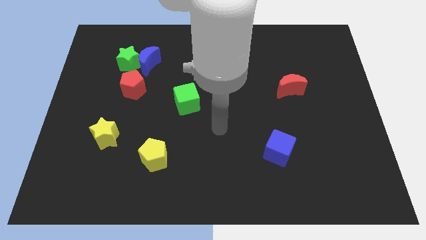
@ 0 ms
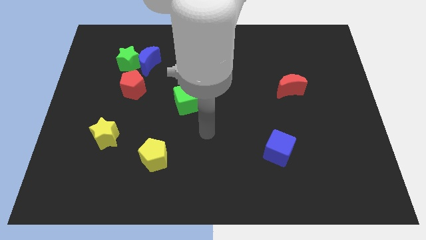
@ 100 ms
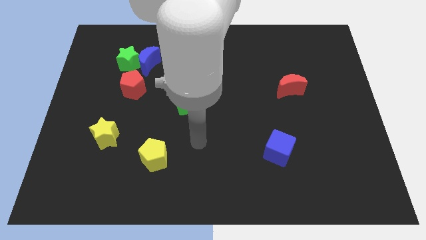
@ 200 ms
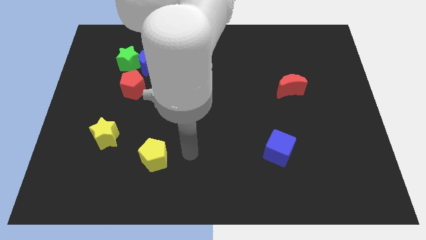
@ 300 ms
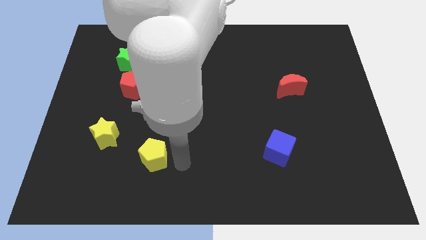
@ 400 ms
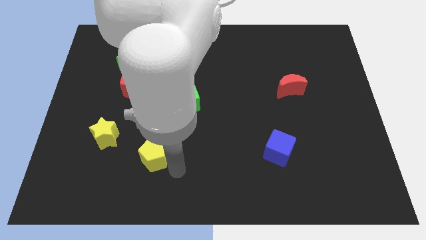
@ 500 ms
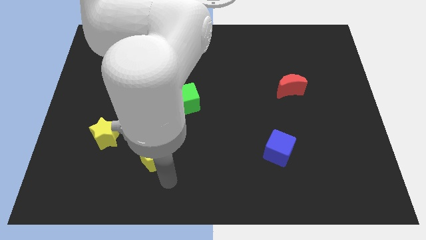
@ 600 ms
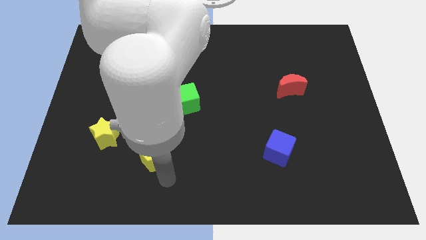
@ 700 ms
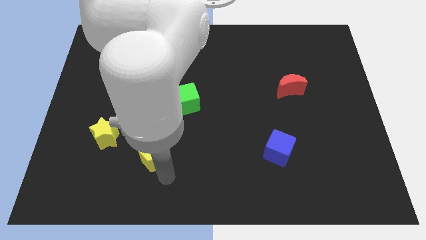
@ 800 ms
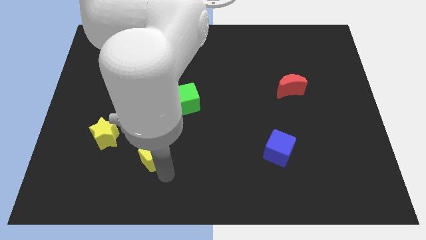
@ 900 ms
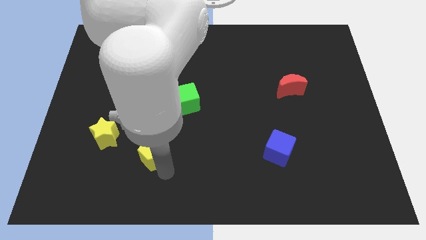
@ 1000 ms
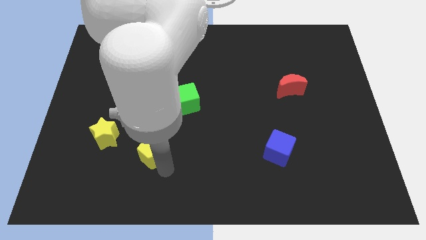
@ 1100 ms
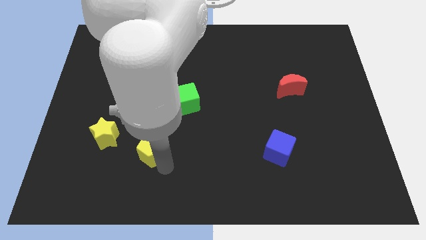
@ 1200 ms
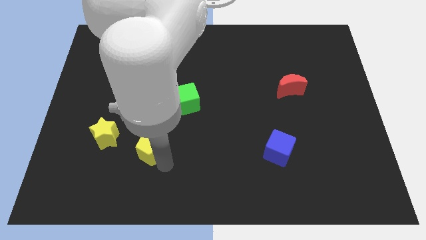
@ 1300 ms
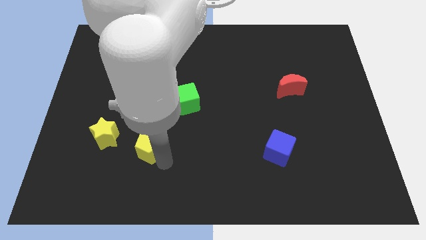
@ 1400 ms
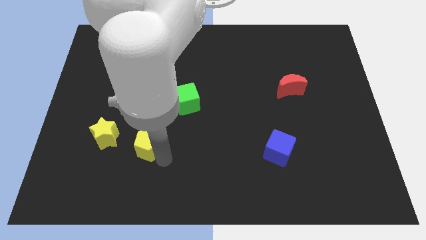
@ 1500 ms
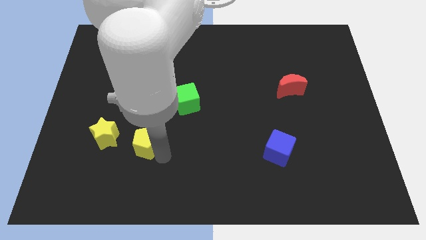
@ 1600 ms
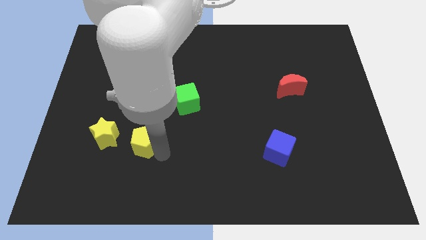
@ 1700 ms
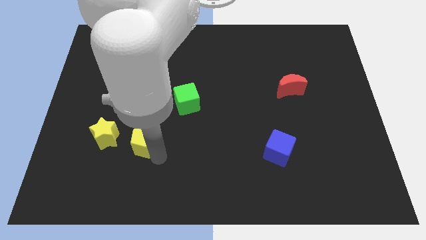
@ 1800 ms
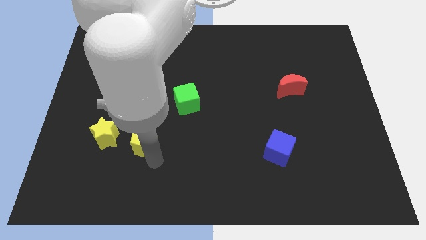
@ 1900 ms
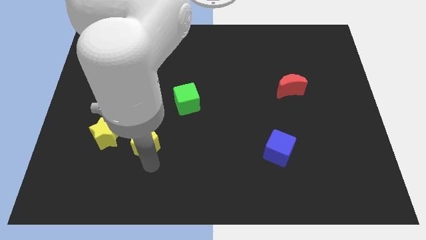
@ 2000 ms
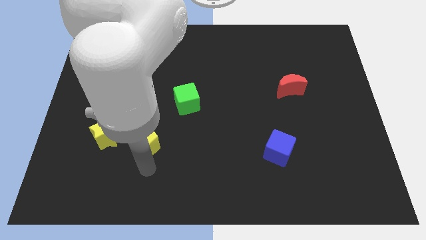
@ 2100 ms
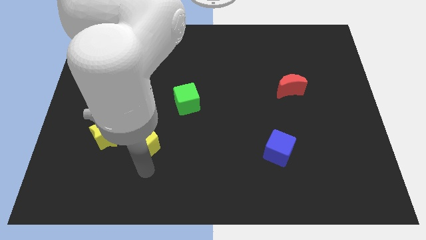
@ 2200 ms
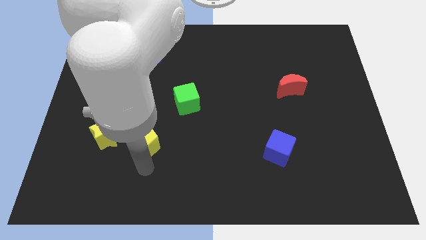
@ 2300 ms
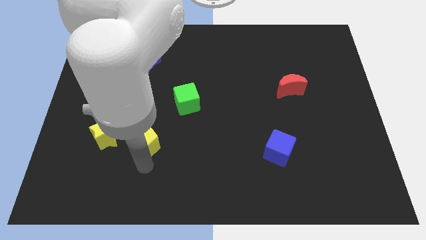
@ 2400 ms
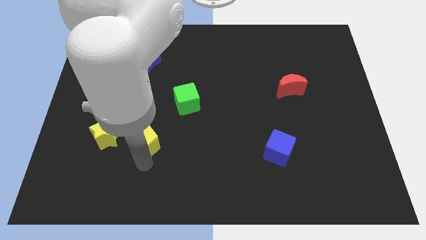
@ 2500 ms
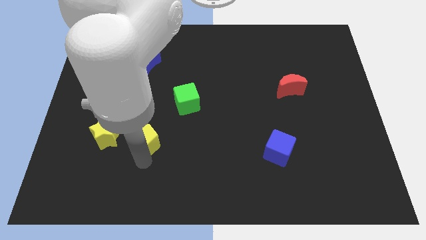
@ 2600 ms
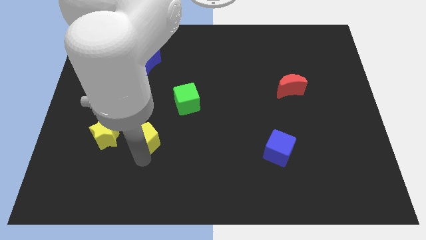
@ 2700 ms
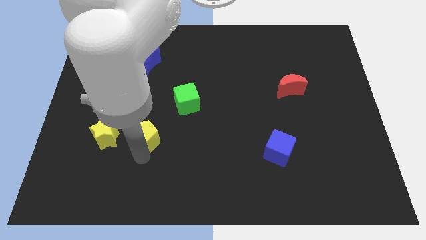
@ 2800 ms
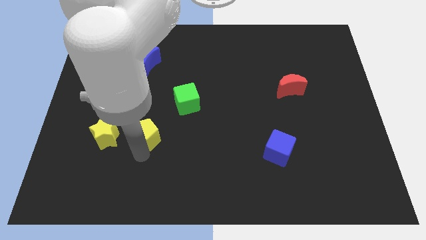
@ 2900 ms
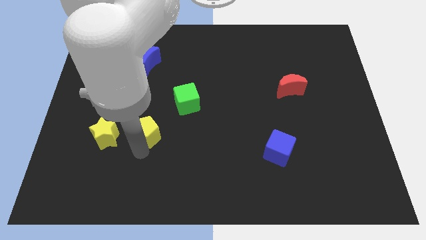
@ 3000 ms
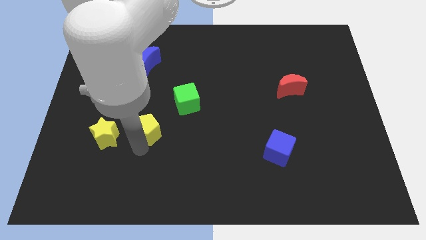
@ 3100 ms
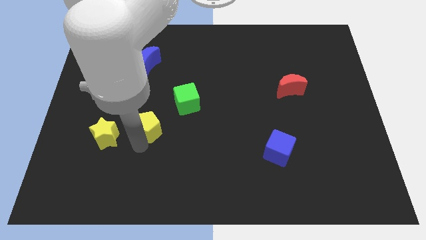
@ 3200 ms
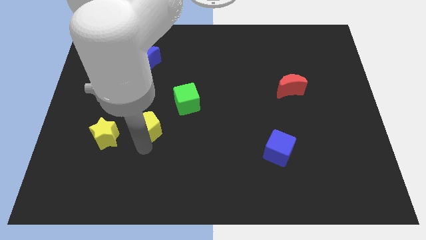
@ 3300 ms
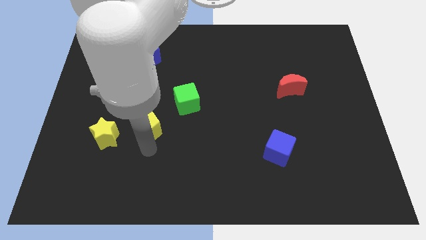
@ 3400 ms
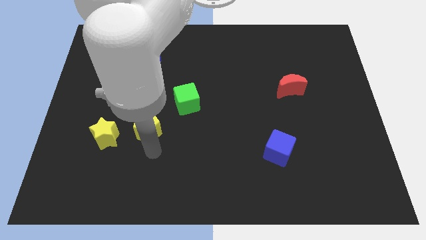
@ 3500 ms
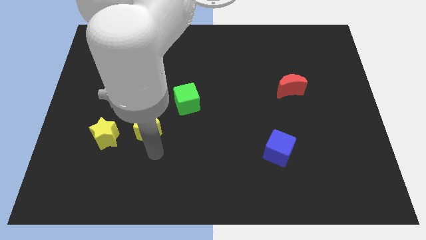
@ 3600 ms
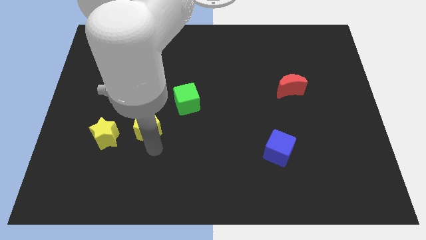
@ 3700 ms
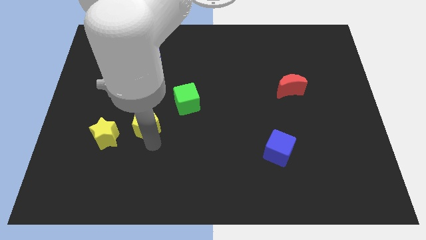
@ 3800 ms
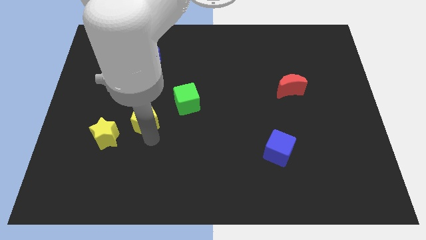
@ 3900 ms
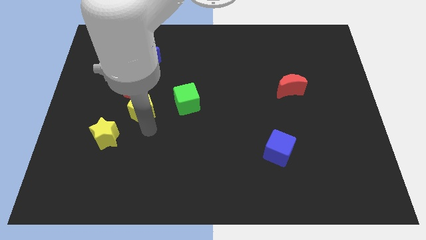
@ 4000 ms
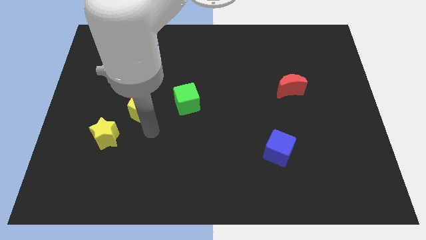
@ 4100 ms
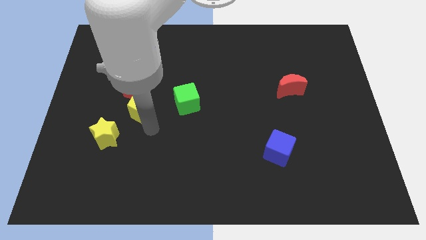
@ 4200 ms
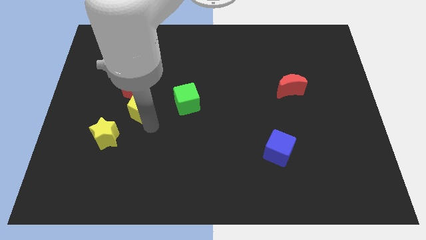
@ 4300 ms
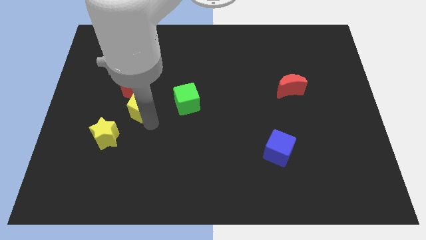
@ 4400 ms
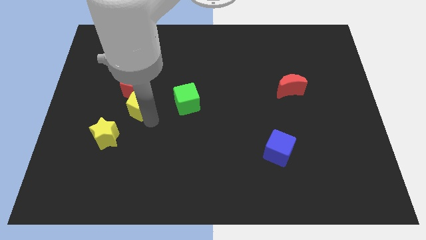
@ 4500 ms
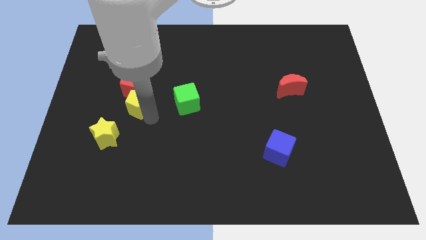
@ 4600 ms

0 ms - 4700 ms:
put the yellow pentagon next to the red pentagon

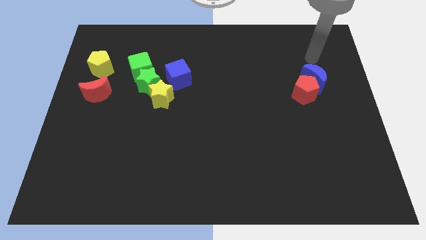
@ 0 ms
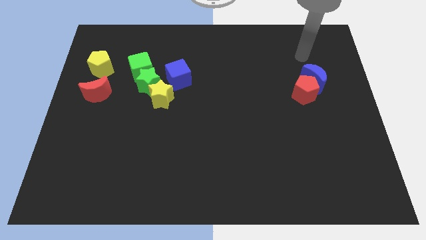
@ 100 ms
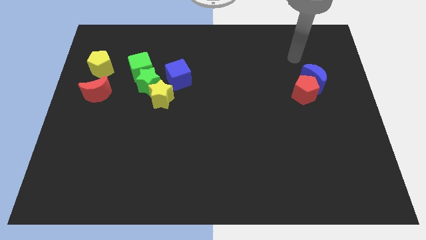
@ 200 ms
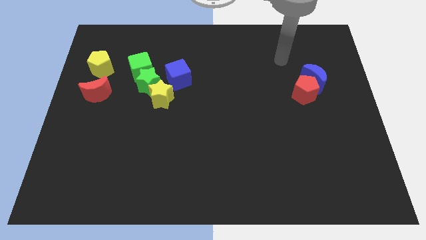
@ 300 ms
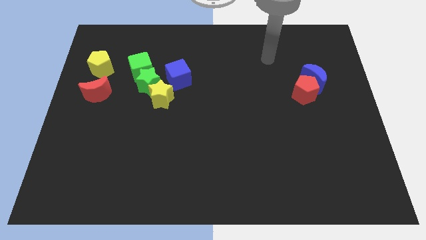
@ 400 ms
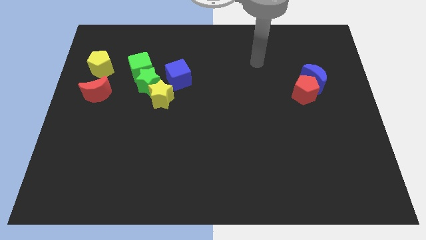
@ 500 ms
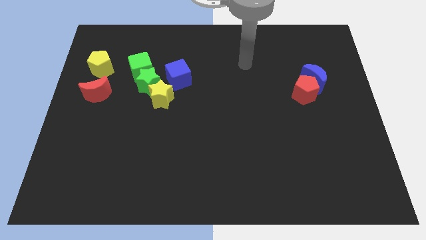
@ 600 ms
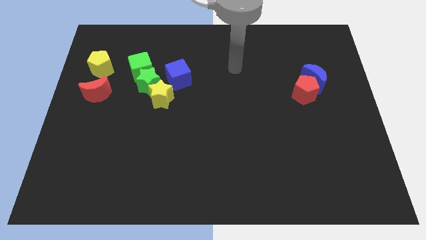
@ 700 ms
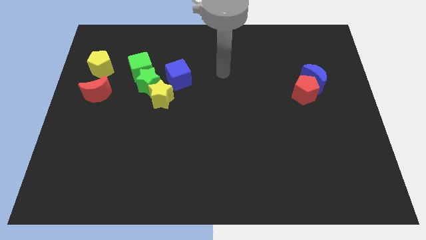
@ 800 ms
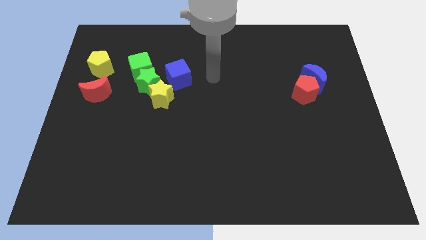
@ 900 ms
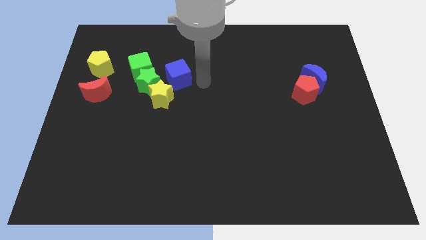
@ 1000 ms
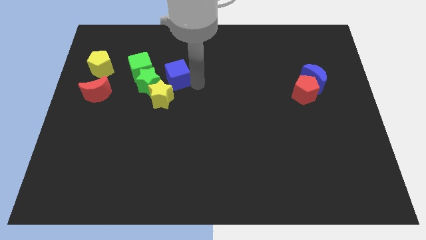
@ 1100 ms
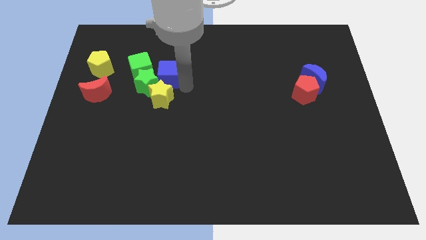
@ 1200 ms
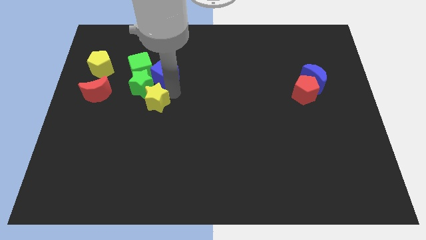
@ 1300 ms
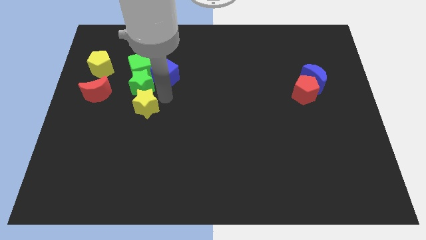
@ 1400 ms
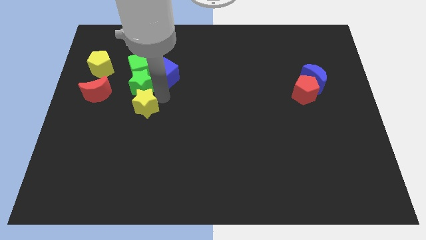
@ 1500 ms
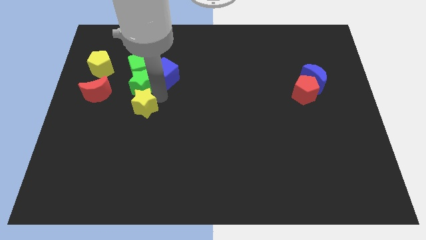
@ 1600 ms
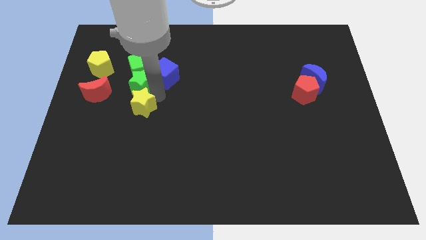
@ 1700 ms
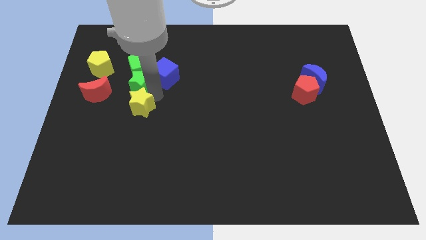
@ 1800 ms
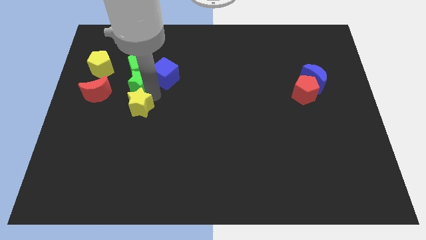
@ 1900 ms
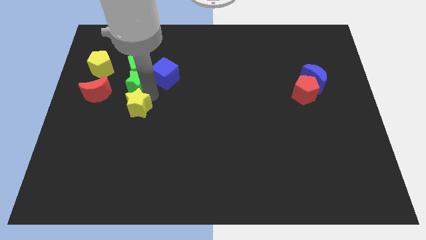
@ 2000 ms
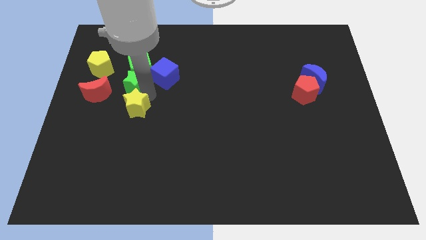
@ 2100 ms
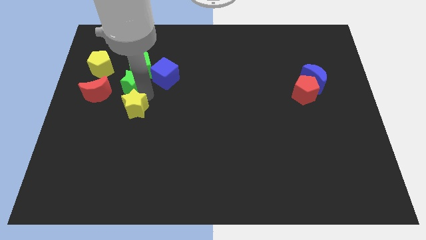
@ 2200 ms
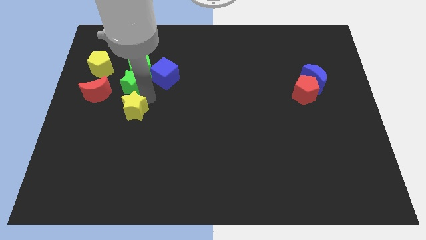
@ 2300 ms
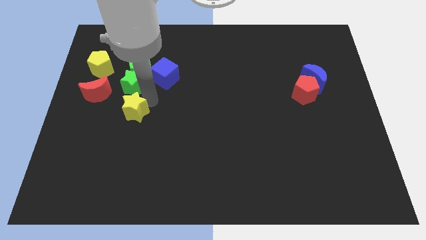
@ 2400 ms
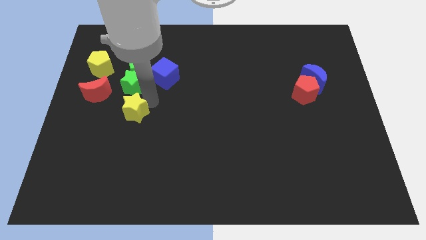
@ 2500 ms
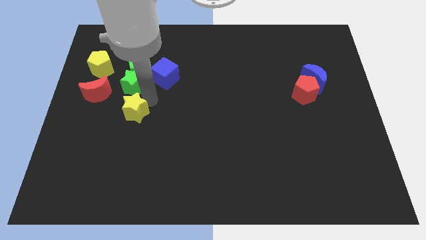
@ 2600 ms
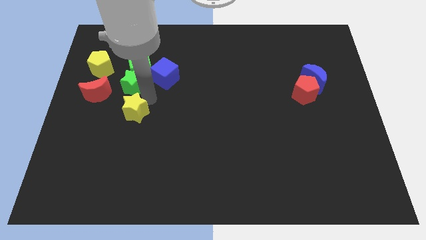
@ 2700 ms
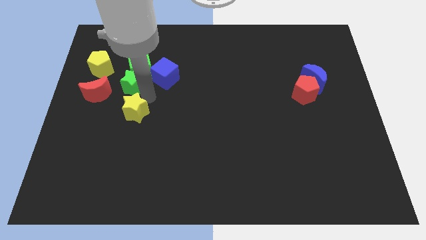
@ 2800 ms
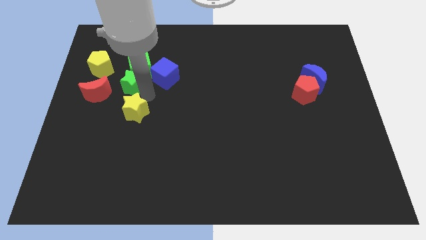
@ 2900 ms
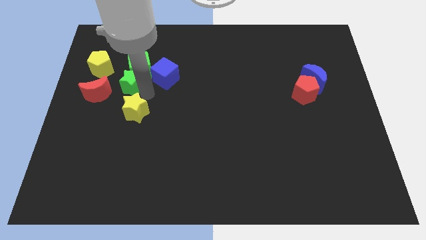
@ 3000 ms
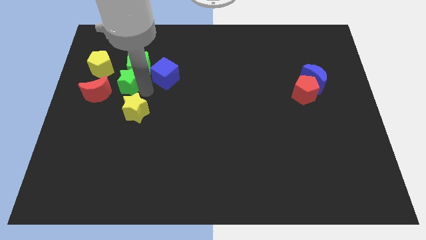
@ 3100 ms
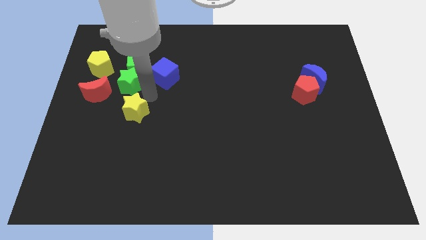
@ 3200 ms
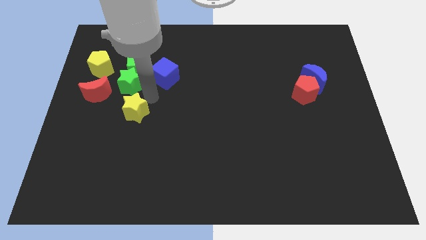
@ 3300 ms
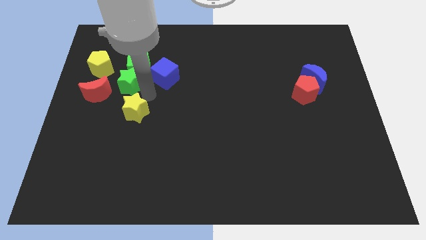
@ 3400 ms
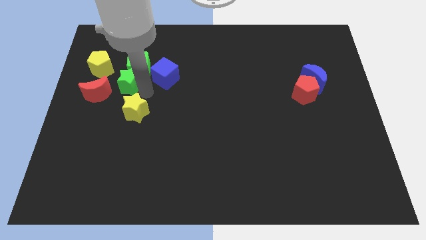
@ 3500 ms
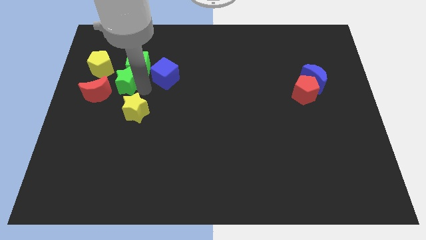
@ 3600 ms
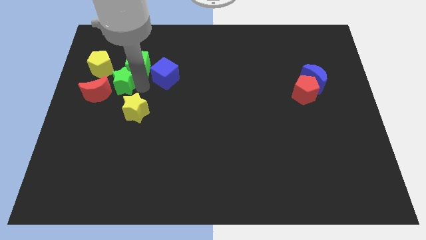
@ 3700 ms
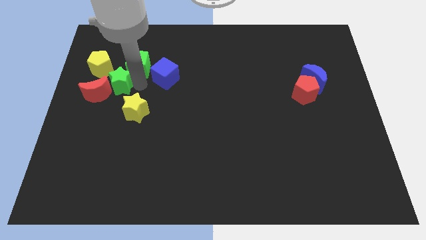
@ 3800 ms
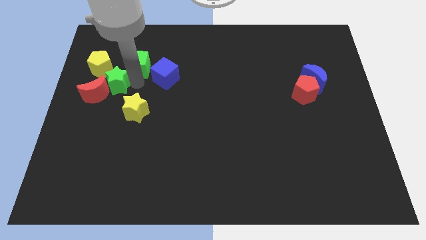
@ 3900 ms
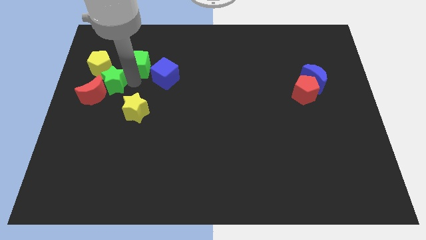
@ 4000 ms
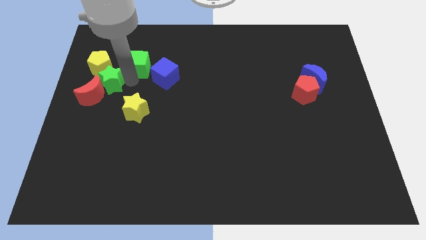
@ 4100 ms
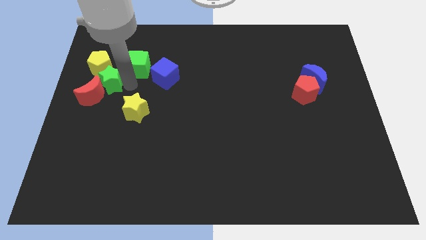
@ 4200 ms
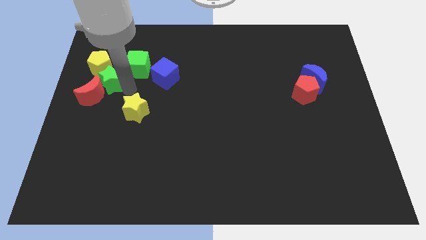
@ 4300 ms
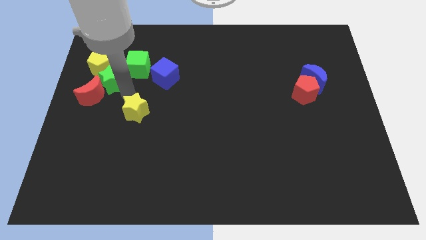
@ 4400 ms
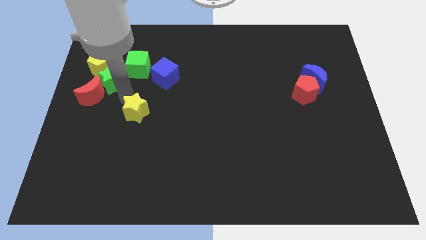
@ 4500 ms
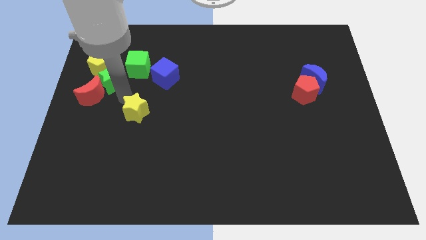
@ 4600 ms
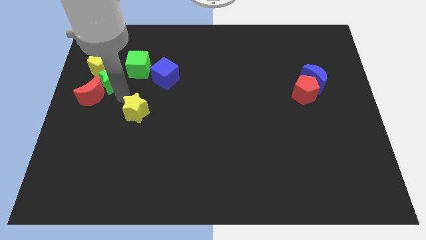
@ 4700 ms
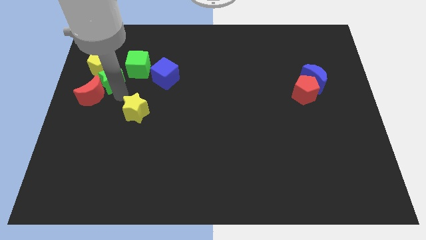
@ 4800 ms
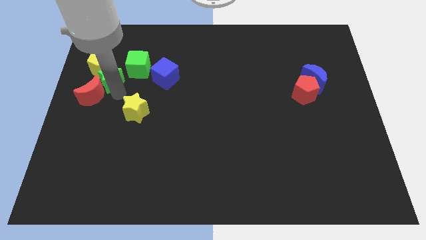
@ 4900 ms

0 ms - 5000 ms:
put the green star next to the yellow pentagon
